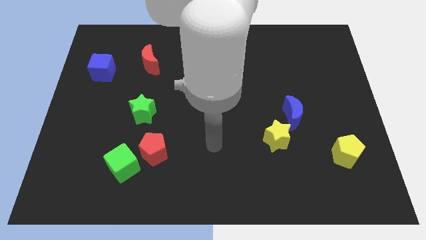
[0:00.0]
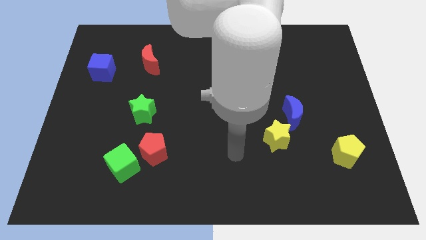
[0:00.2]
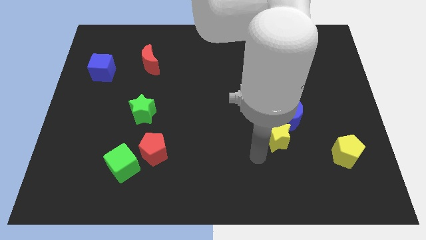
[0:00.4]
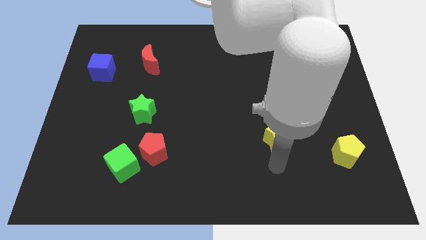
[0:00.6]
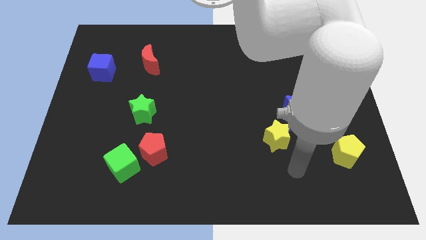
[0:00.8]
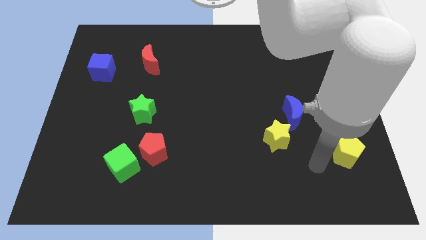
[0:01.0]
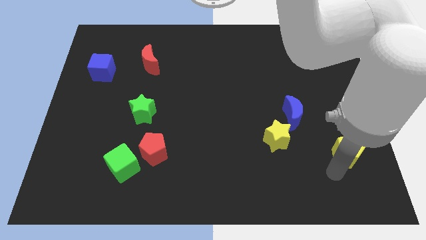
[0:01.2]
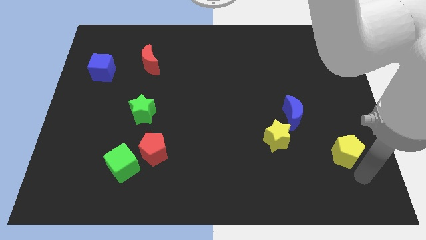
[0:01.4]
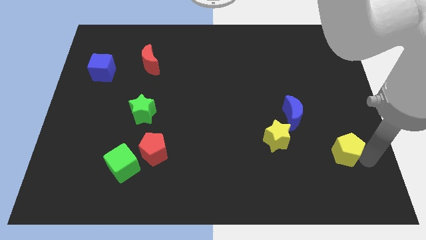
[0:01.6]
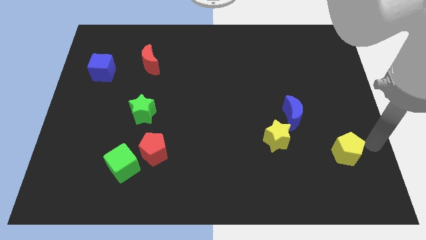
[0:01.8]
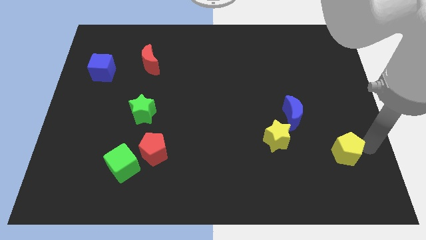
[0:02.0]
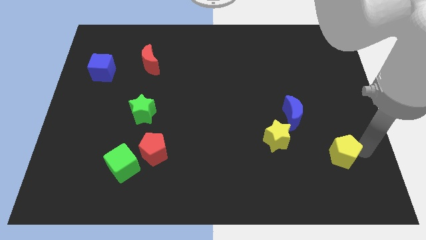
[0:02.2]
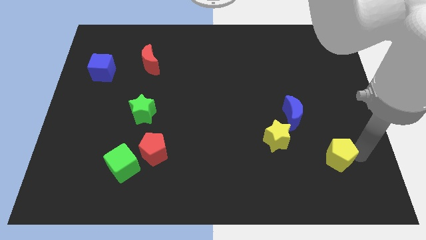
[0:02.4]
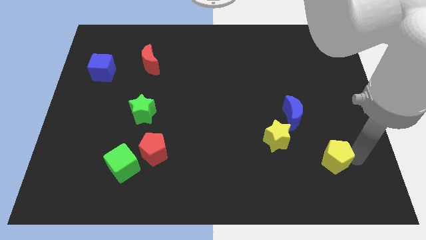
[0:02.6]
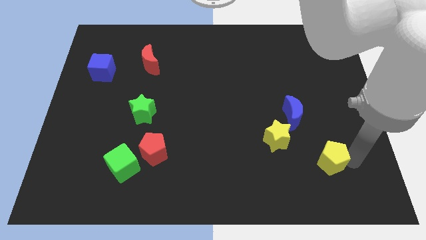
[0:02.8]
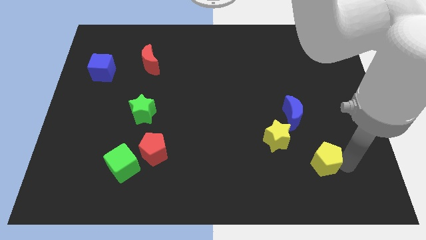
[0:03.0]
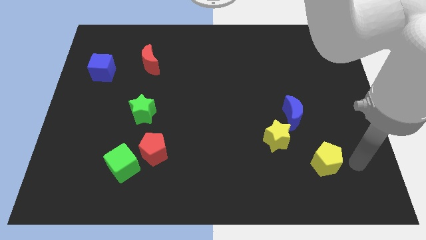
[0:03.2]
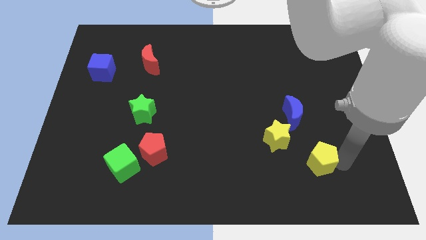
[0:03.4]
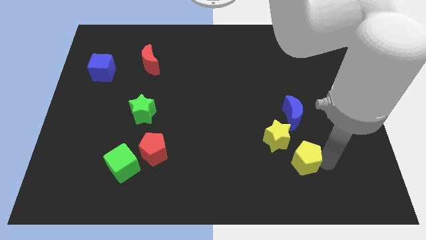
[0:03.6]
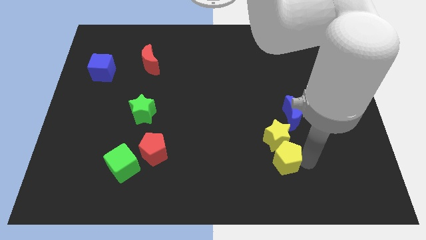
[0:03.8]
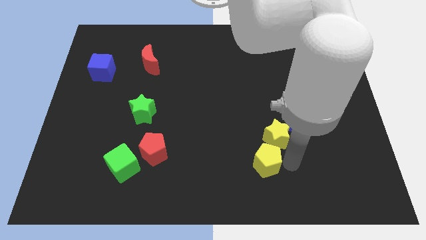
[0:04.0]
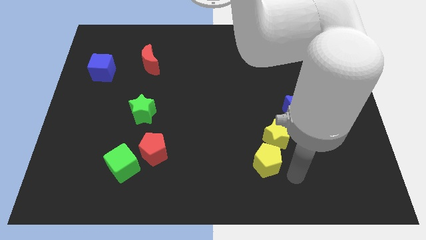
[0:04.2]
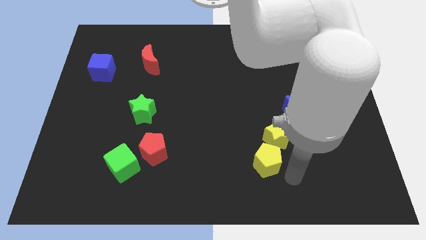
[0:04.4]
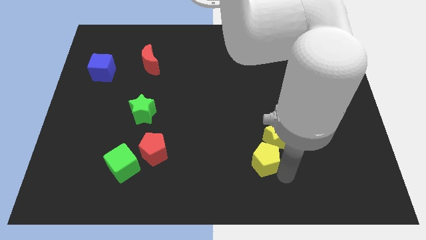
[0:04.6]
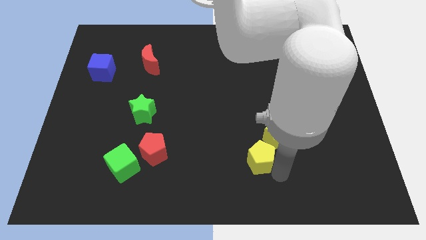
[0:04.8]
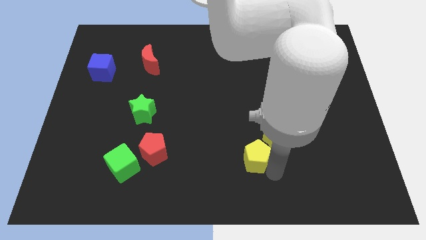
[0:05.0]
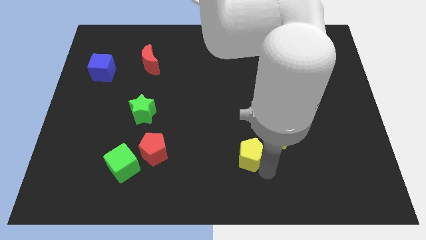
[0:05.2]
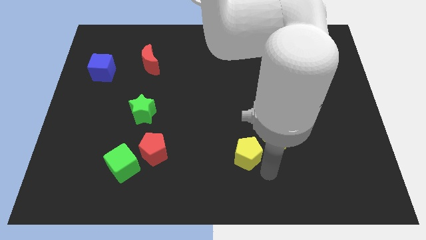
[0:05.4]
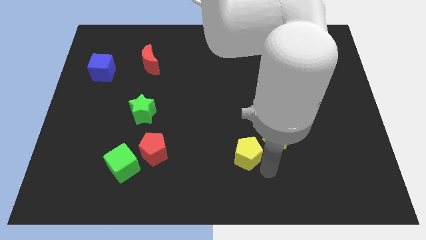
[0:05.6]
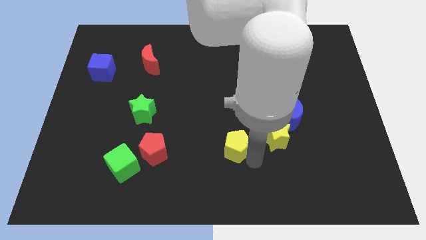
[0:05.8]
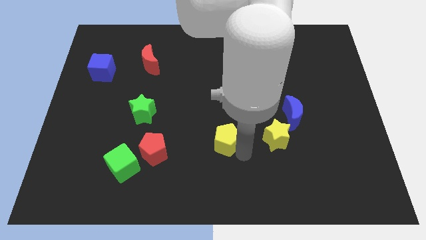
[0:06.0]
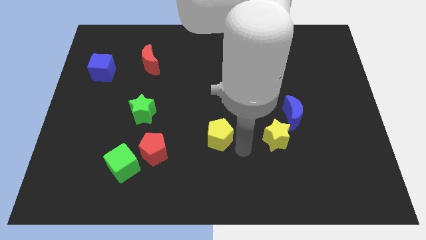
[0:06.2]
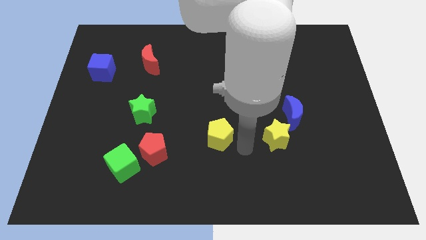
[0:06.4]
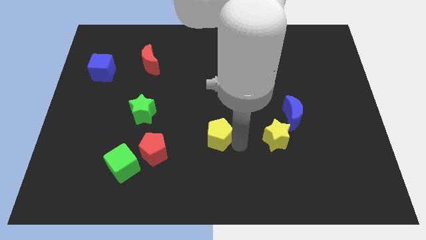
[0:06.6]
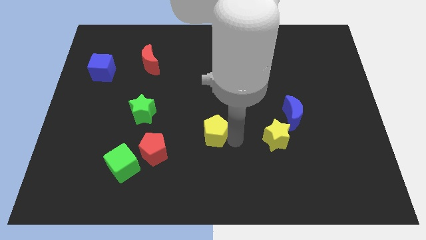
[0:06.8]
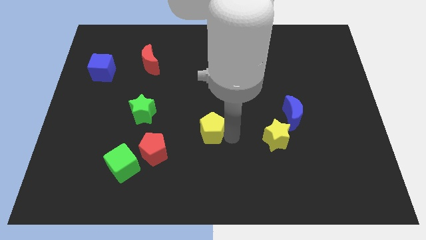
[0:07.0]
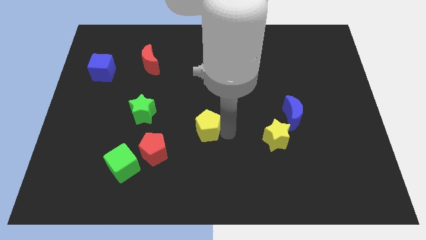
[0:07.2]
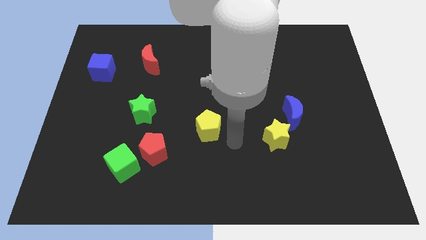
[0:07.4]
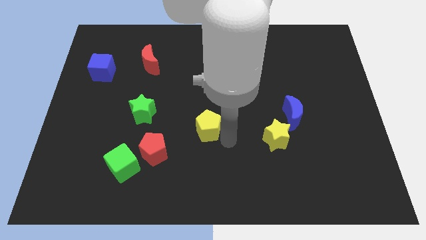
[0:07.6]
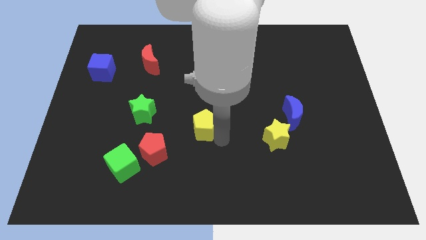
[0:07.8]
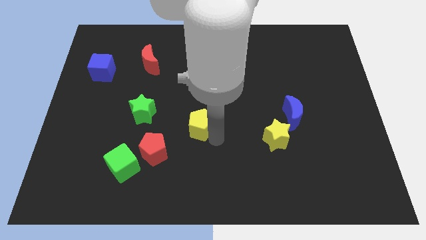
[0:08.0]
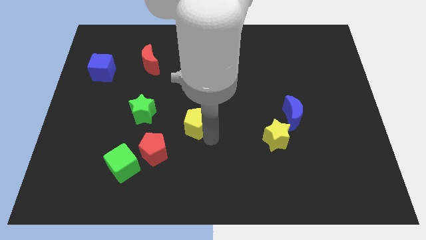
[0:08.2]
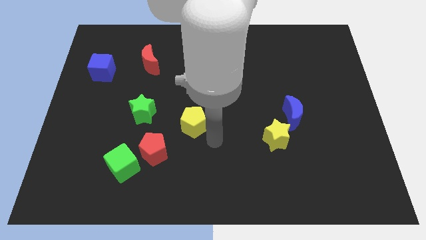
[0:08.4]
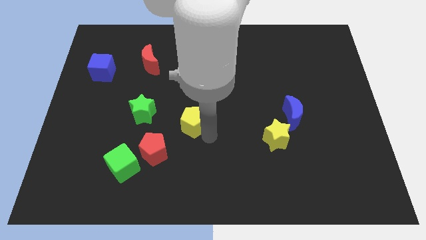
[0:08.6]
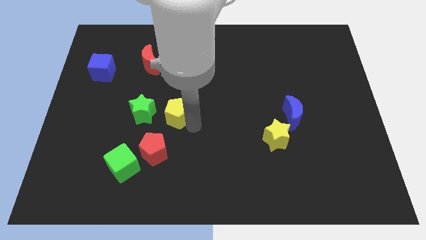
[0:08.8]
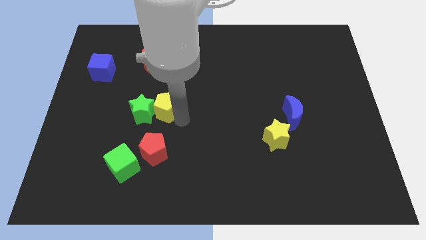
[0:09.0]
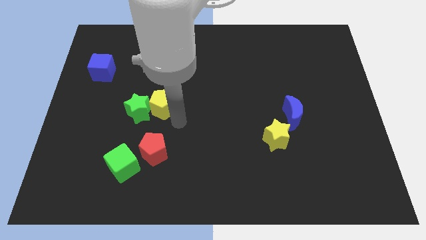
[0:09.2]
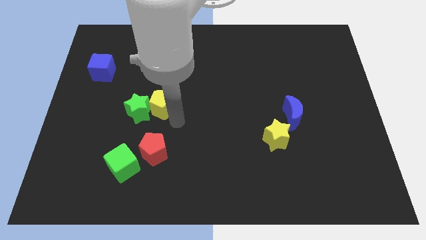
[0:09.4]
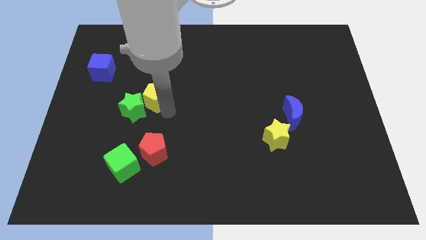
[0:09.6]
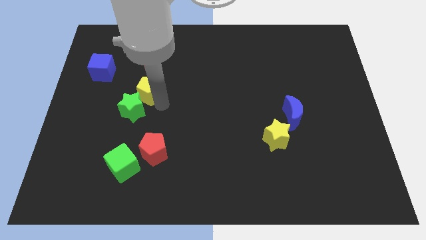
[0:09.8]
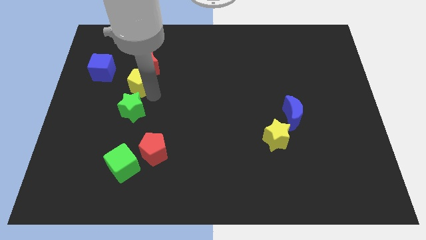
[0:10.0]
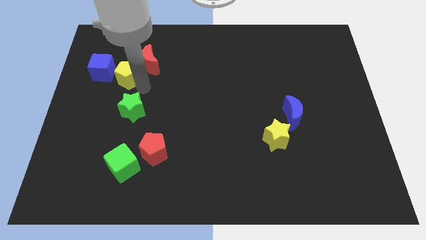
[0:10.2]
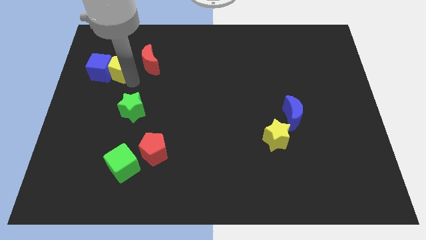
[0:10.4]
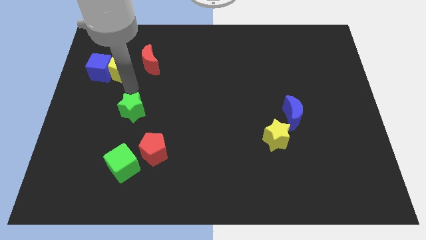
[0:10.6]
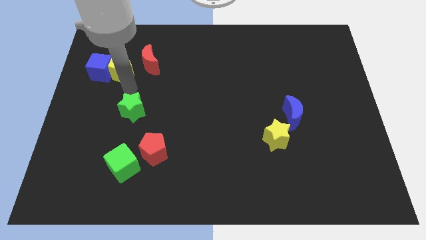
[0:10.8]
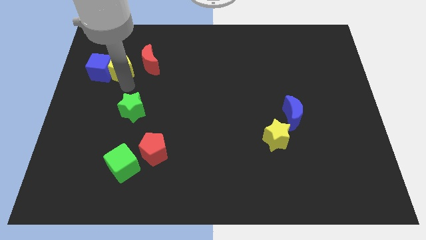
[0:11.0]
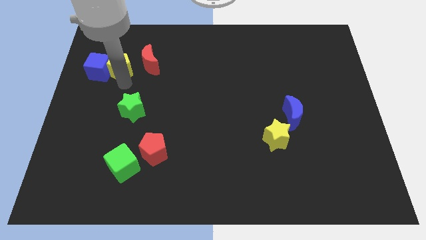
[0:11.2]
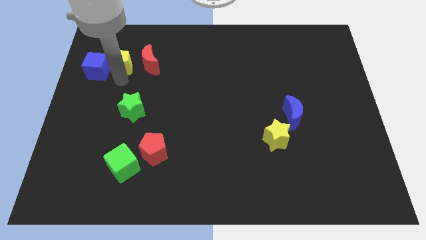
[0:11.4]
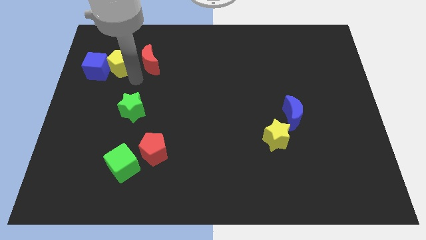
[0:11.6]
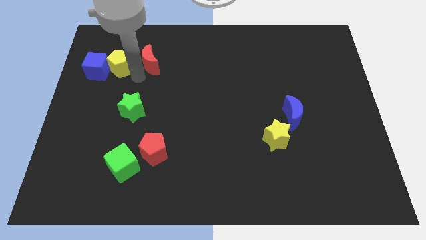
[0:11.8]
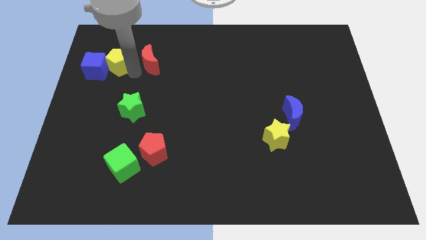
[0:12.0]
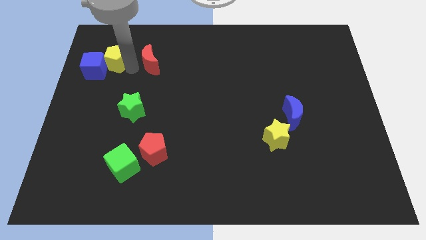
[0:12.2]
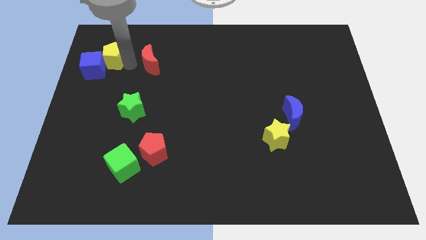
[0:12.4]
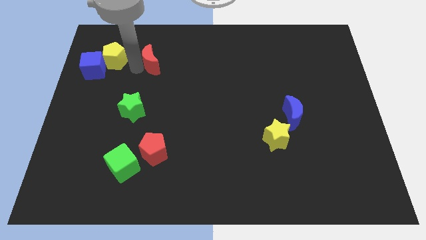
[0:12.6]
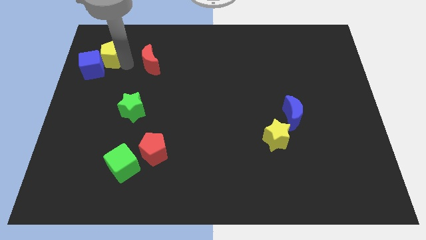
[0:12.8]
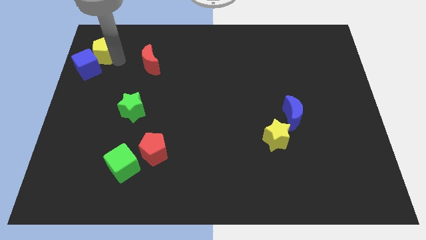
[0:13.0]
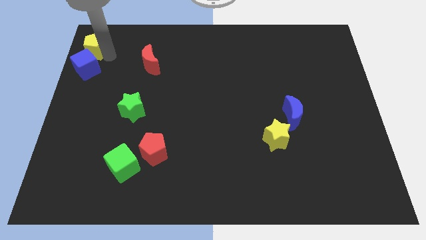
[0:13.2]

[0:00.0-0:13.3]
push the yellow pentagon to the top left corner
